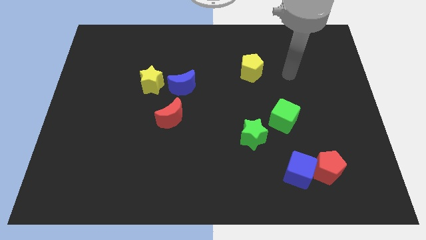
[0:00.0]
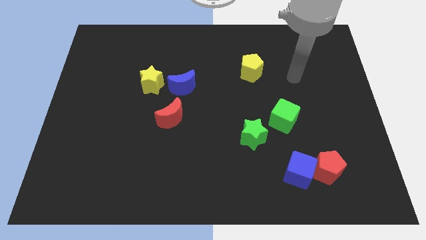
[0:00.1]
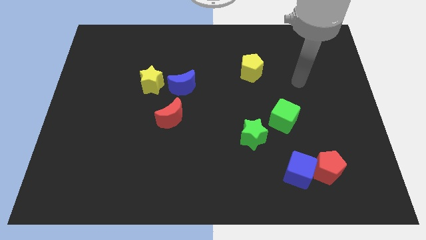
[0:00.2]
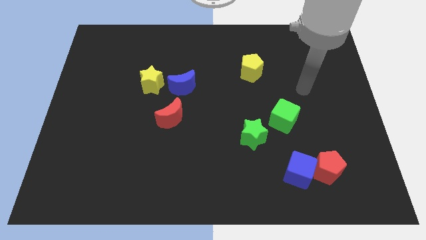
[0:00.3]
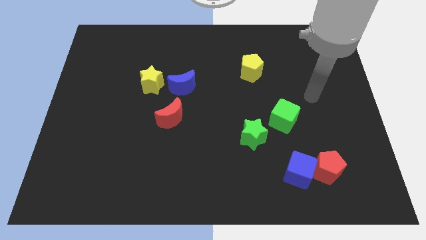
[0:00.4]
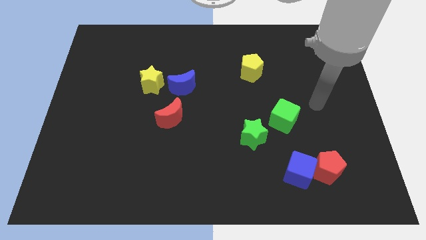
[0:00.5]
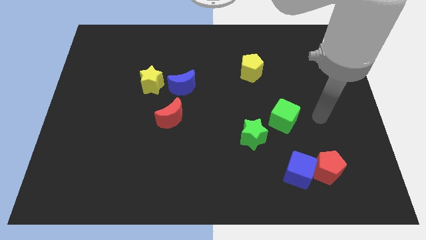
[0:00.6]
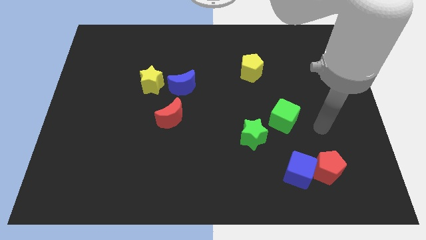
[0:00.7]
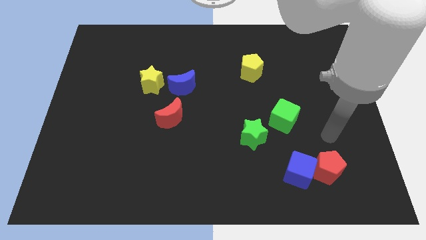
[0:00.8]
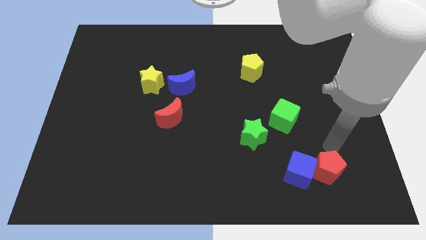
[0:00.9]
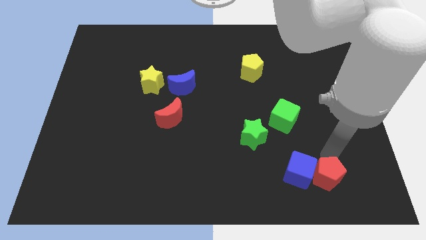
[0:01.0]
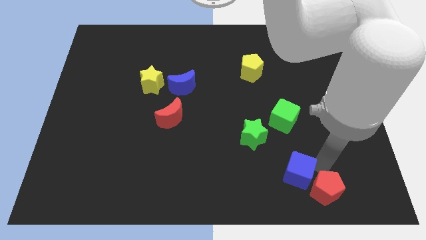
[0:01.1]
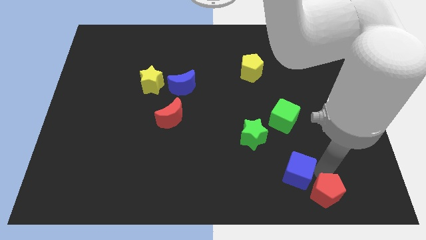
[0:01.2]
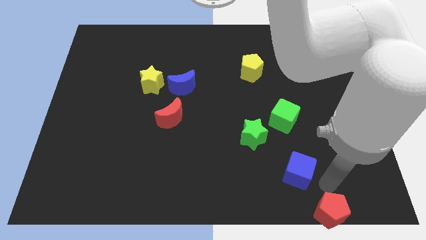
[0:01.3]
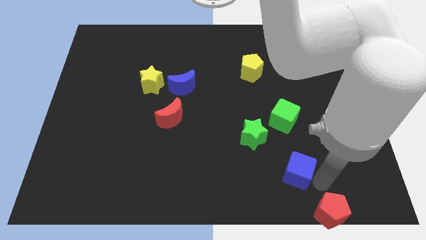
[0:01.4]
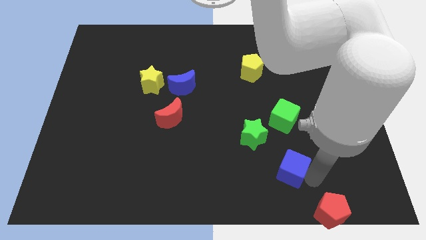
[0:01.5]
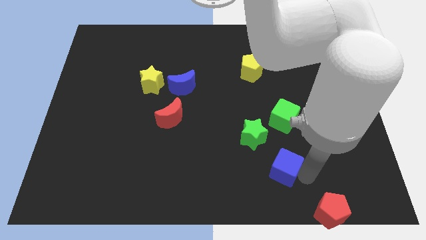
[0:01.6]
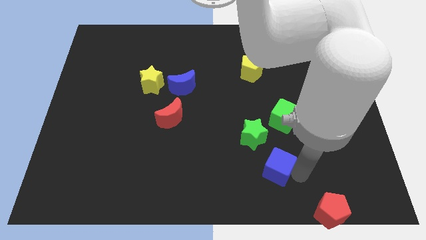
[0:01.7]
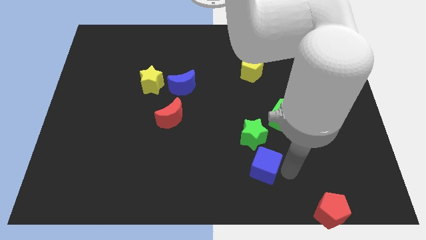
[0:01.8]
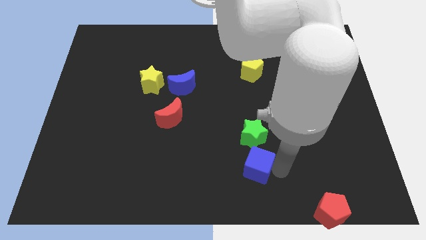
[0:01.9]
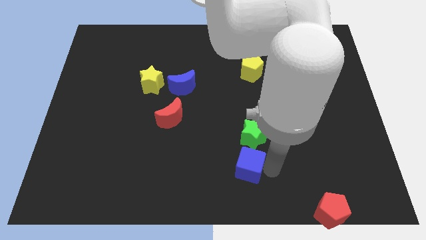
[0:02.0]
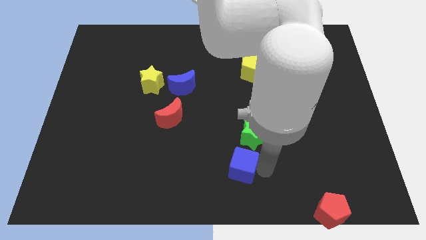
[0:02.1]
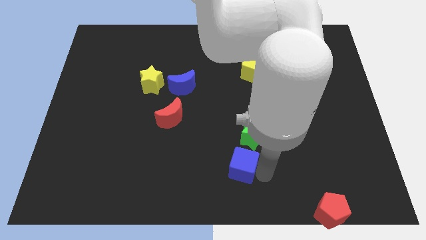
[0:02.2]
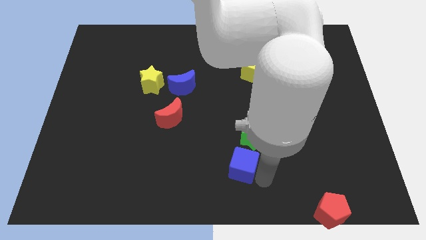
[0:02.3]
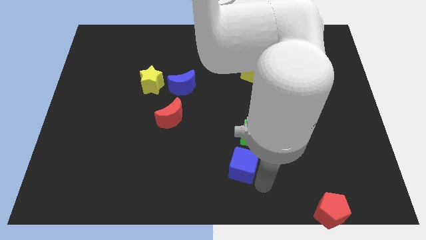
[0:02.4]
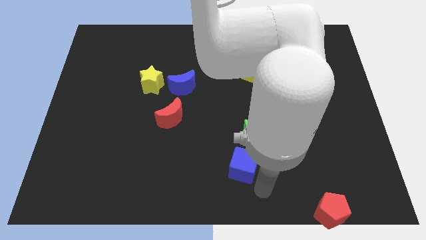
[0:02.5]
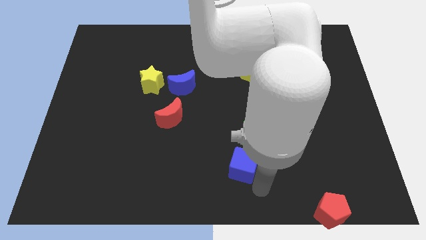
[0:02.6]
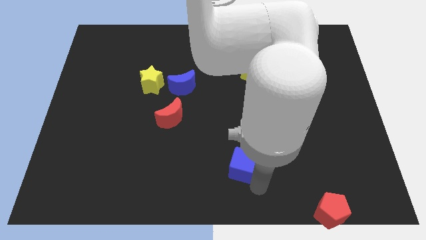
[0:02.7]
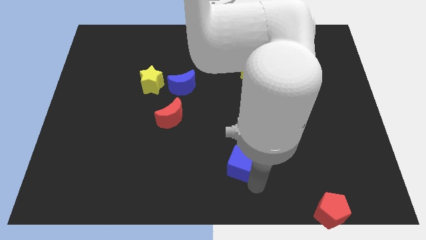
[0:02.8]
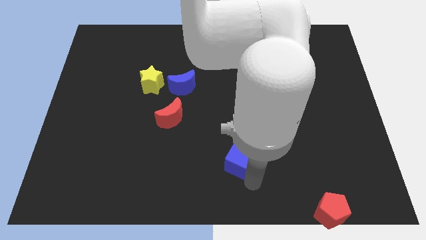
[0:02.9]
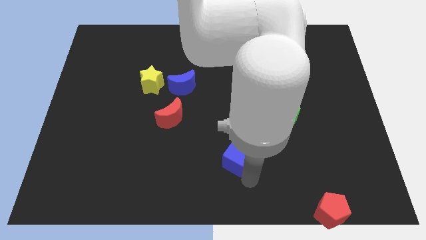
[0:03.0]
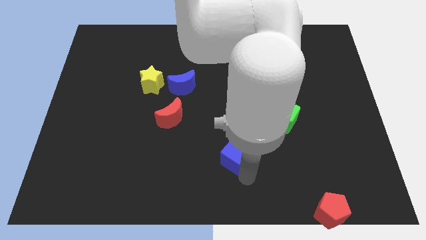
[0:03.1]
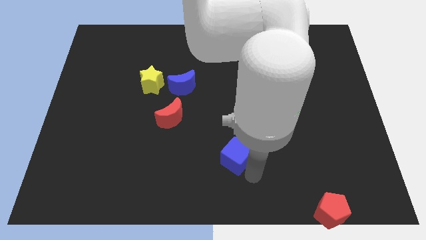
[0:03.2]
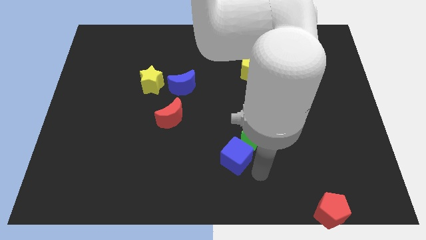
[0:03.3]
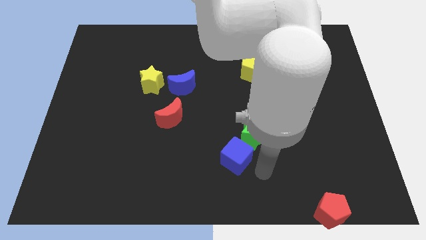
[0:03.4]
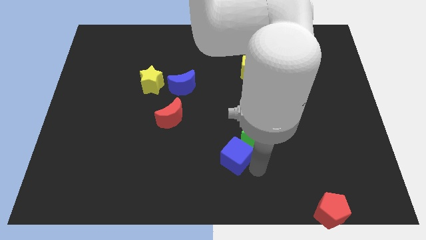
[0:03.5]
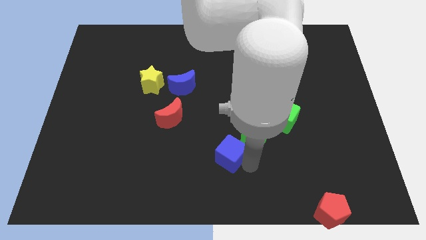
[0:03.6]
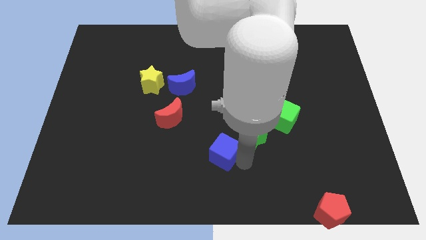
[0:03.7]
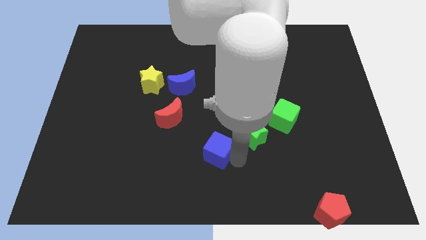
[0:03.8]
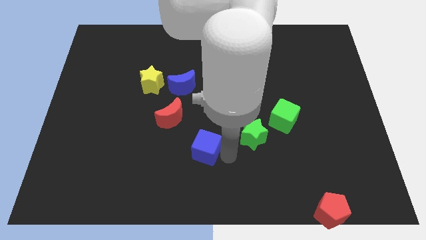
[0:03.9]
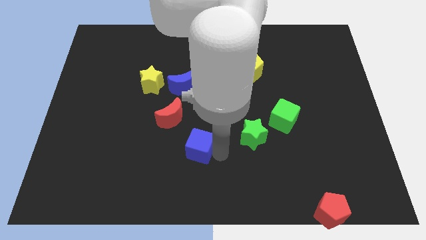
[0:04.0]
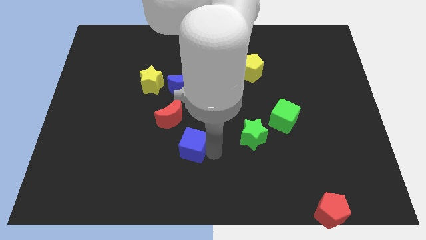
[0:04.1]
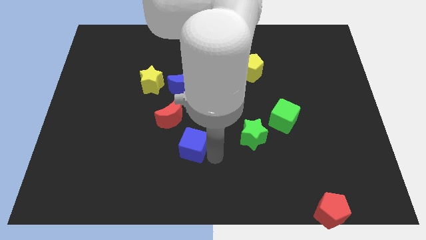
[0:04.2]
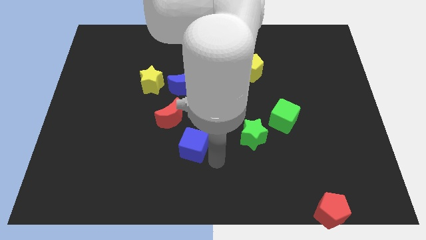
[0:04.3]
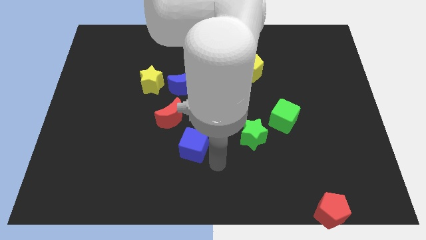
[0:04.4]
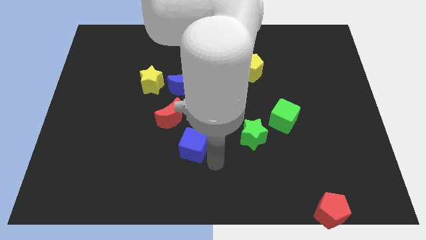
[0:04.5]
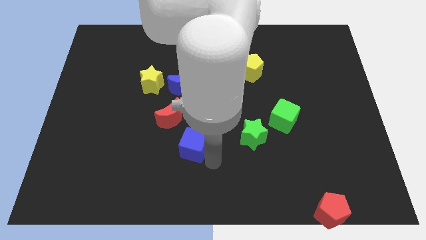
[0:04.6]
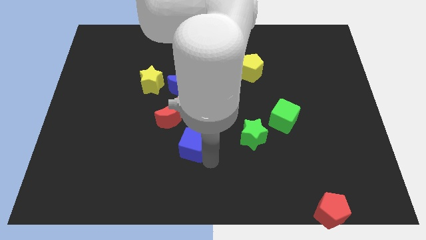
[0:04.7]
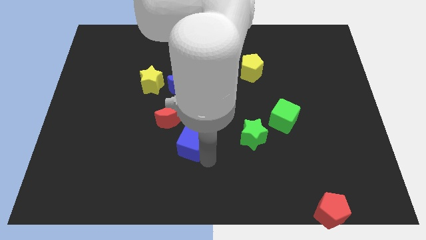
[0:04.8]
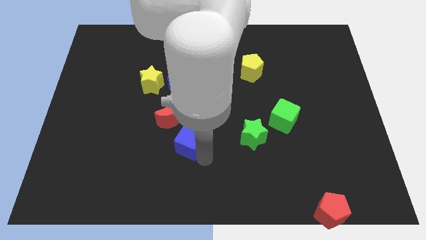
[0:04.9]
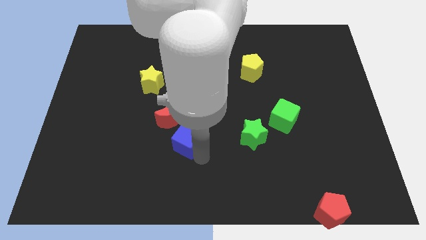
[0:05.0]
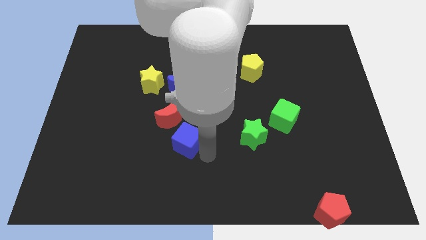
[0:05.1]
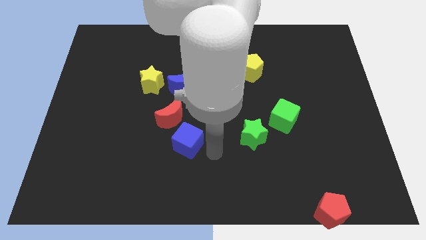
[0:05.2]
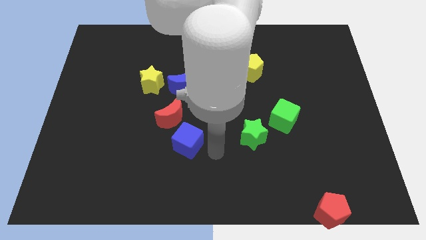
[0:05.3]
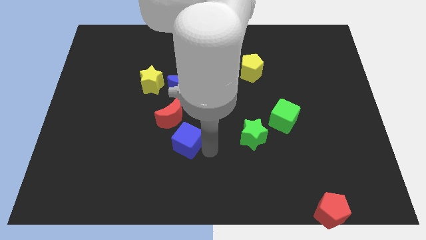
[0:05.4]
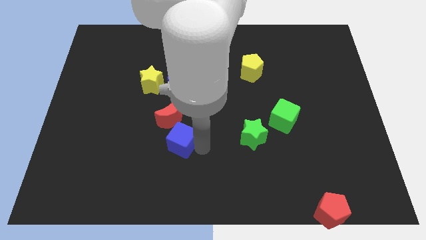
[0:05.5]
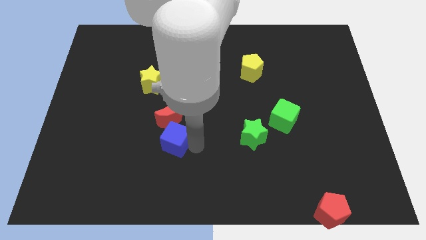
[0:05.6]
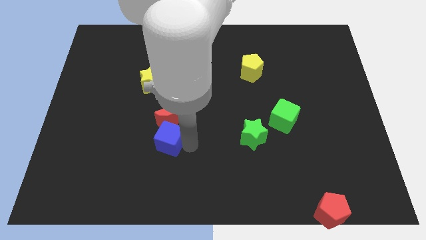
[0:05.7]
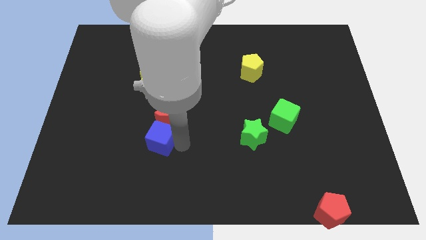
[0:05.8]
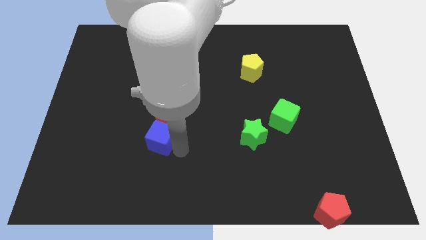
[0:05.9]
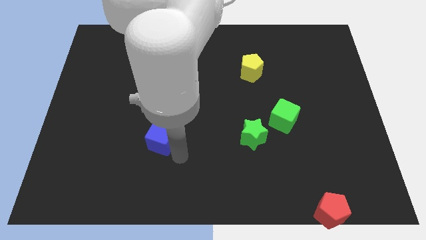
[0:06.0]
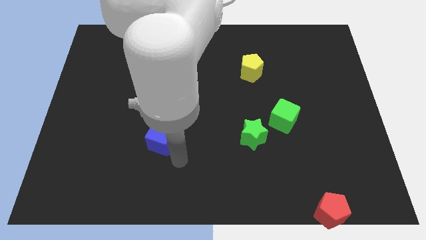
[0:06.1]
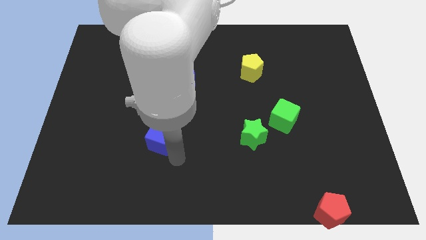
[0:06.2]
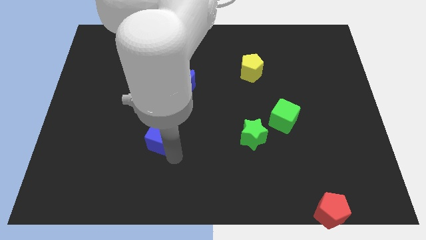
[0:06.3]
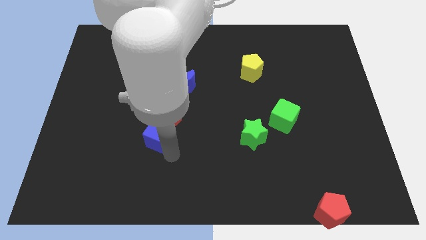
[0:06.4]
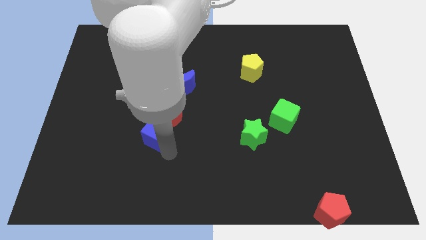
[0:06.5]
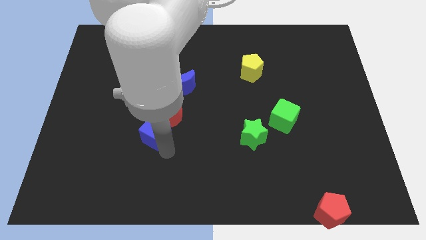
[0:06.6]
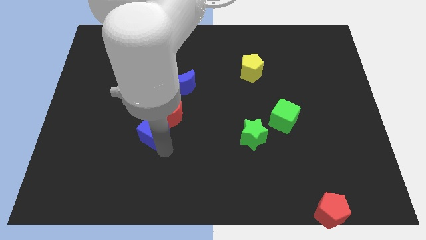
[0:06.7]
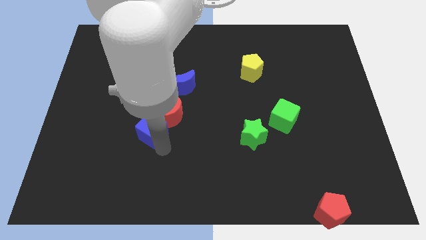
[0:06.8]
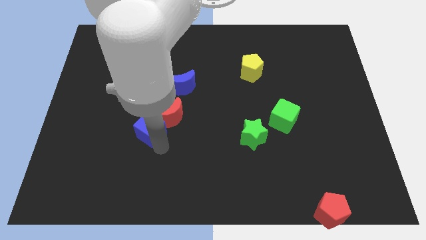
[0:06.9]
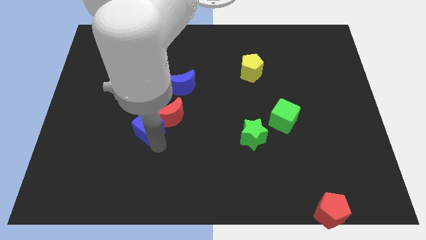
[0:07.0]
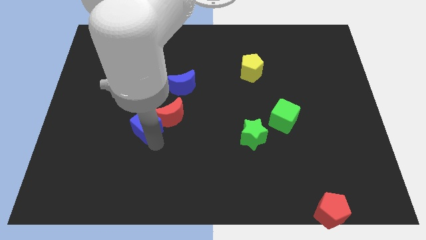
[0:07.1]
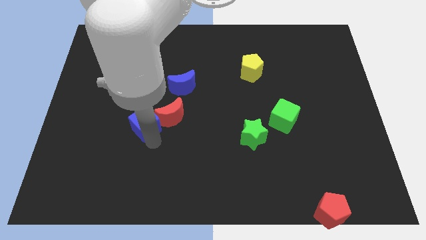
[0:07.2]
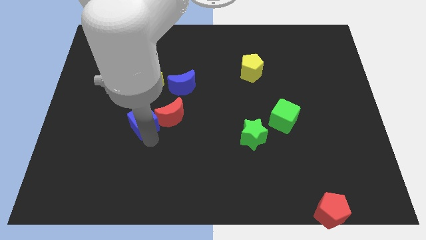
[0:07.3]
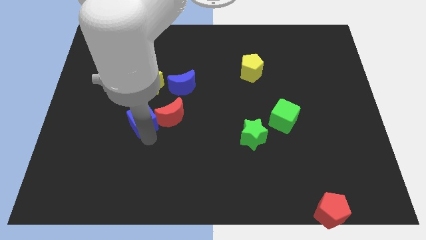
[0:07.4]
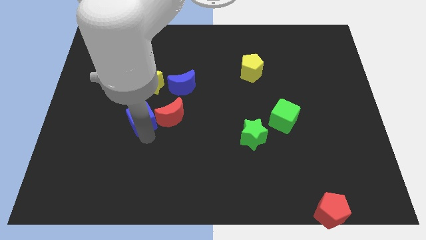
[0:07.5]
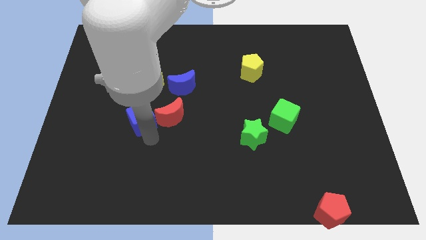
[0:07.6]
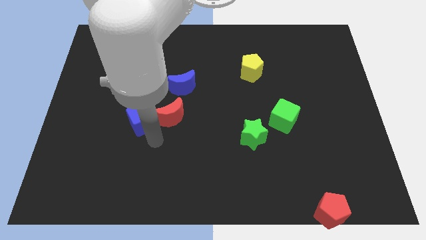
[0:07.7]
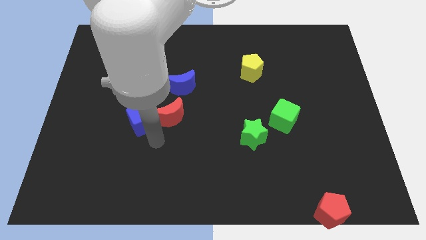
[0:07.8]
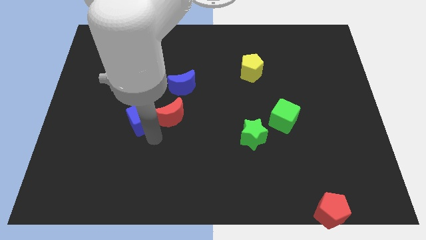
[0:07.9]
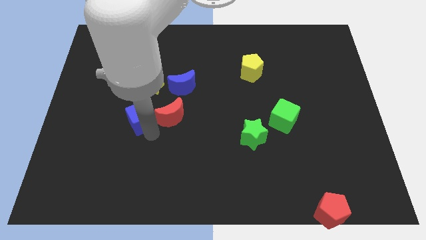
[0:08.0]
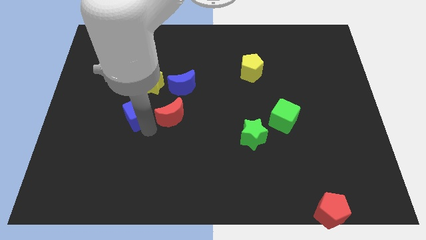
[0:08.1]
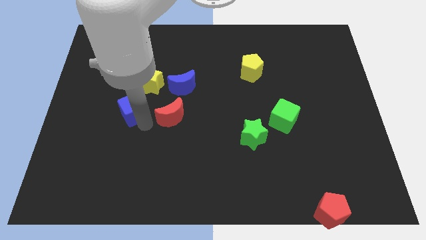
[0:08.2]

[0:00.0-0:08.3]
move the blue cube diagonally down and to the left of the yellow star
